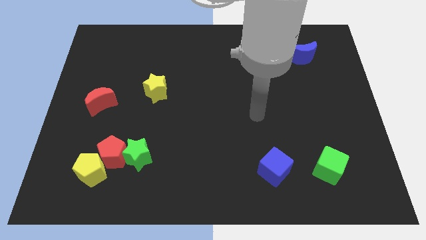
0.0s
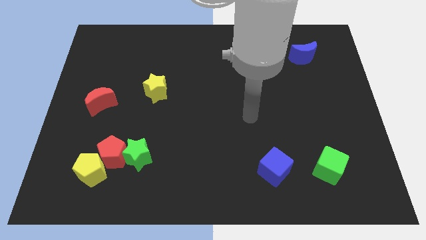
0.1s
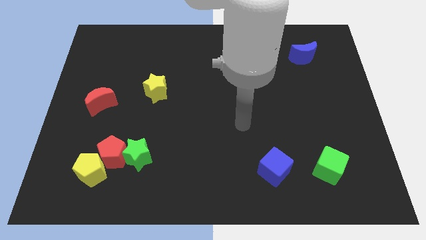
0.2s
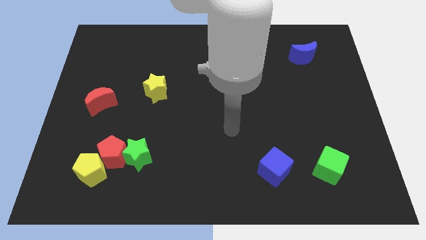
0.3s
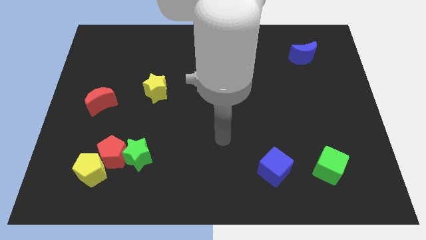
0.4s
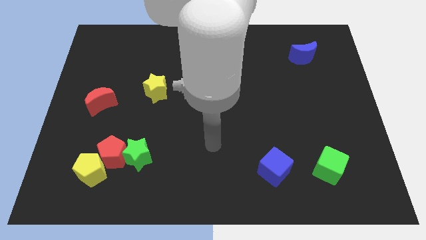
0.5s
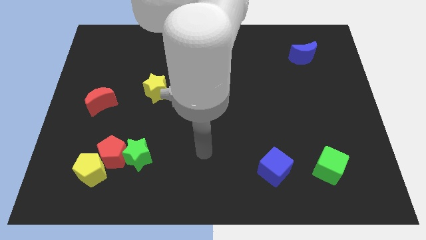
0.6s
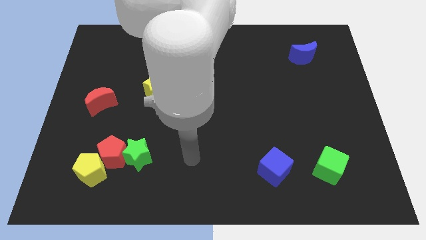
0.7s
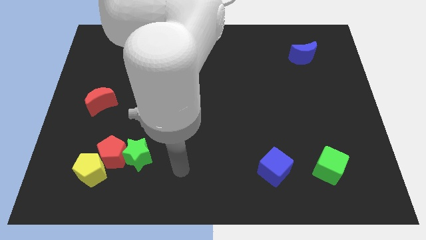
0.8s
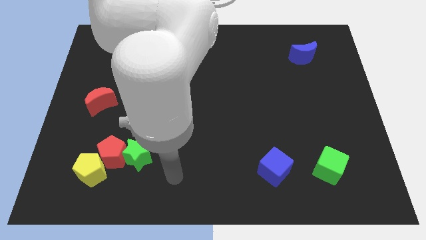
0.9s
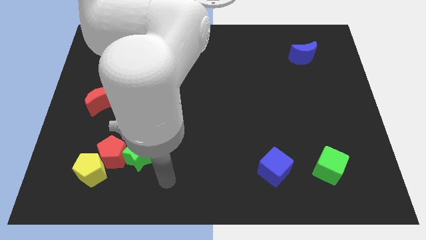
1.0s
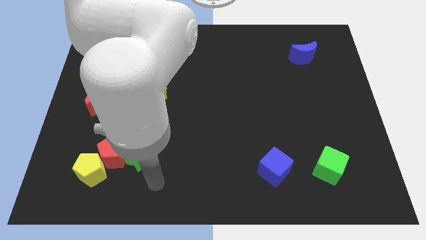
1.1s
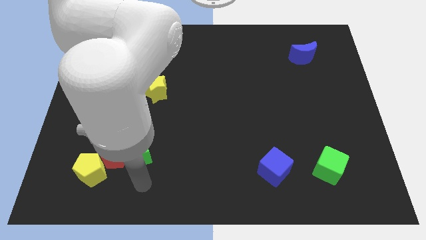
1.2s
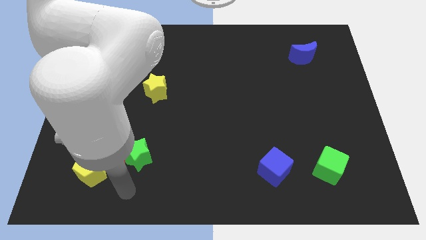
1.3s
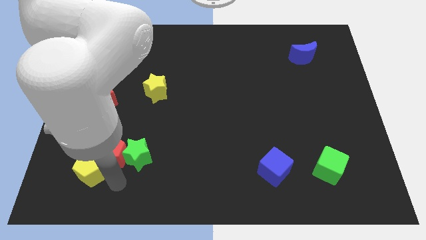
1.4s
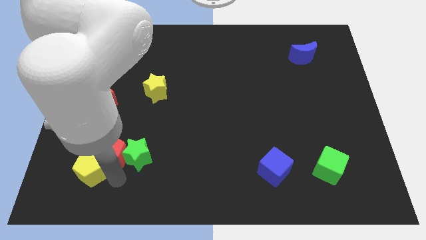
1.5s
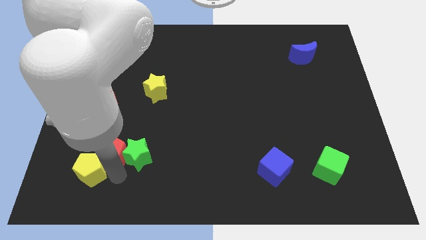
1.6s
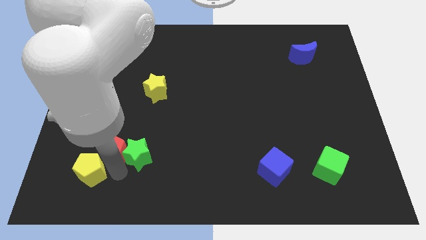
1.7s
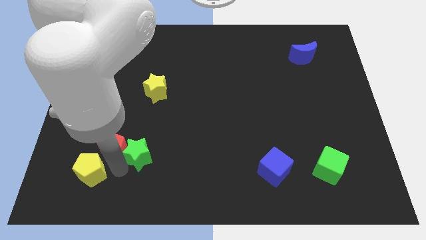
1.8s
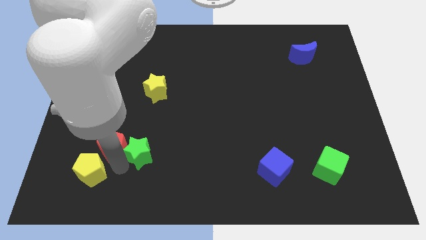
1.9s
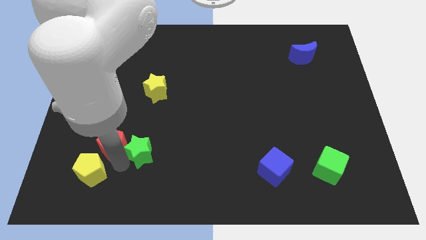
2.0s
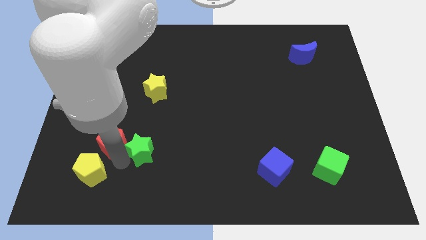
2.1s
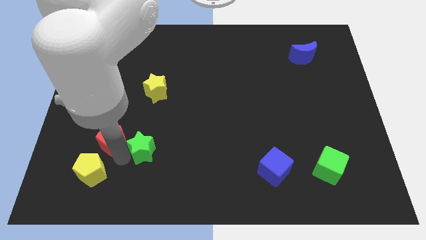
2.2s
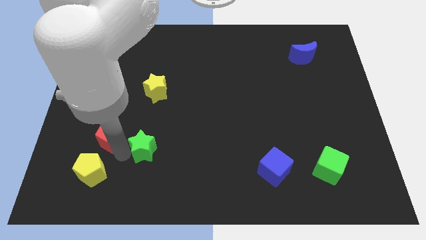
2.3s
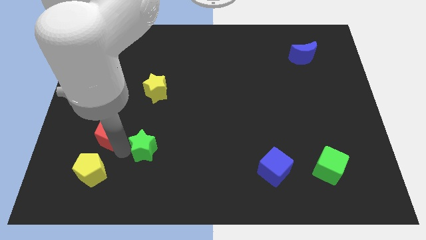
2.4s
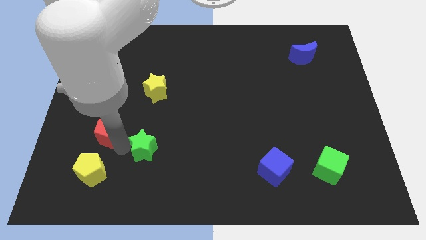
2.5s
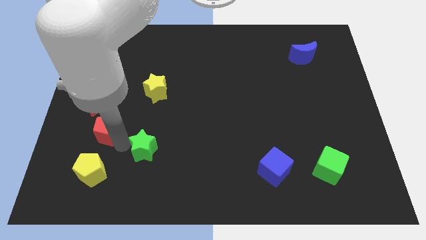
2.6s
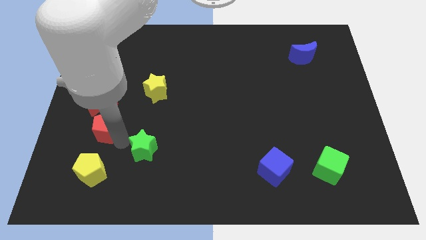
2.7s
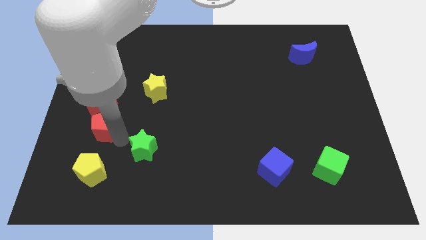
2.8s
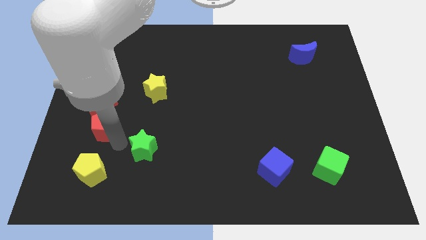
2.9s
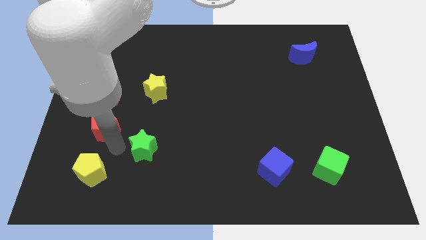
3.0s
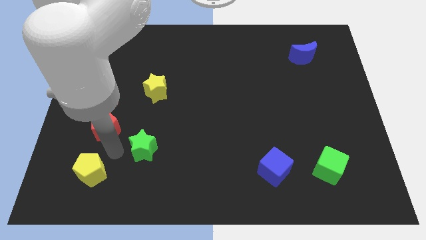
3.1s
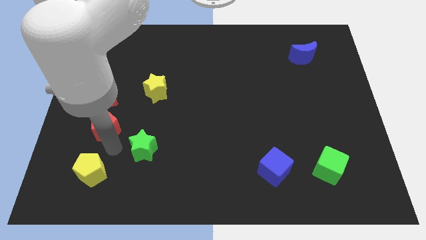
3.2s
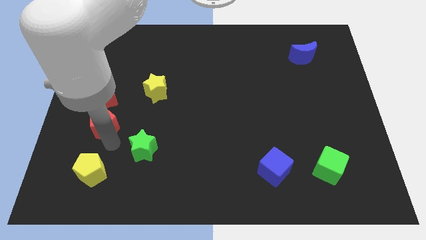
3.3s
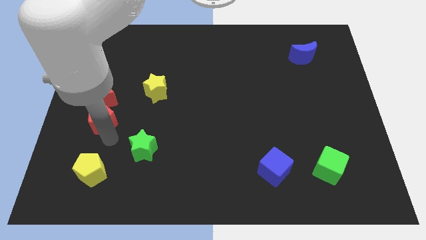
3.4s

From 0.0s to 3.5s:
pull the red pentagon apart from the green star and yellow pentagon

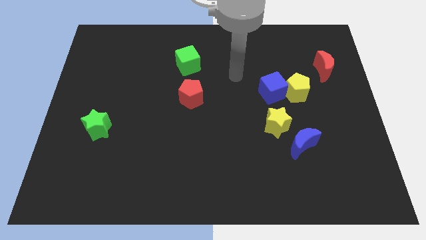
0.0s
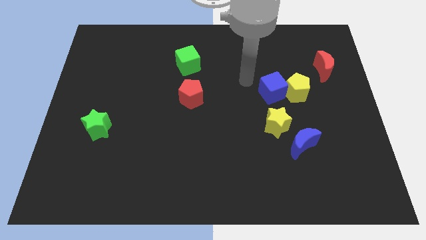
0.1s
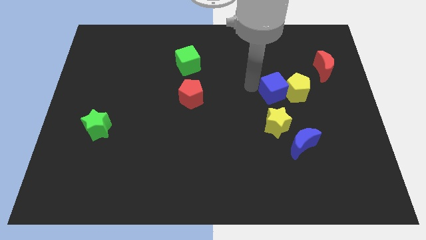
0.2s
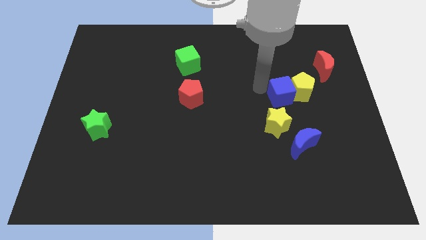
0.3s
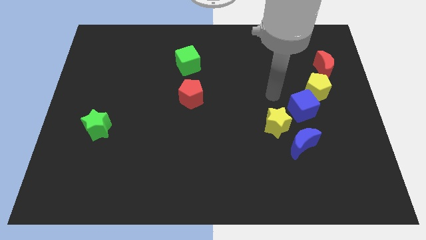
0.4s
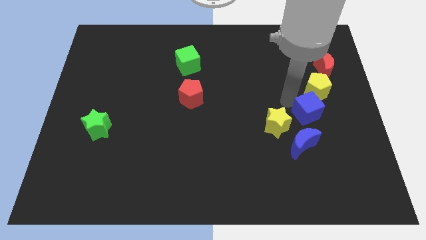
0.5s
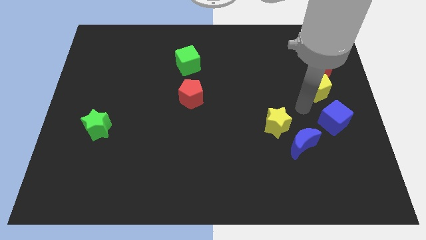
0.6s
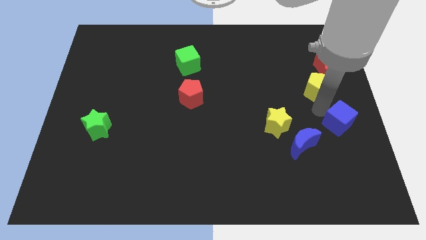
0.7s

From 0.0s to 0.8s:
pull the yellow pentagon apart from the blue cube

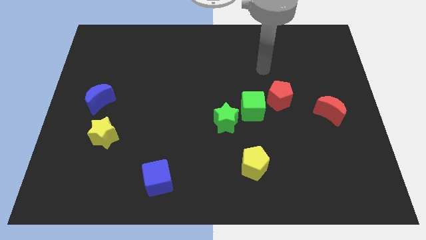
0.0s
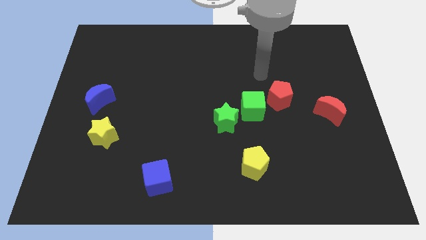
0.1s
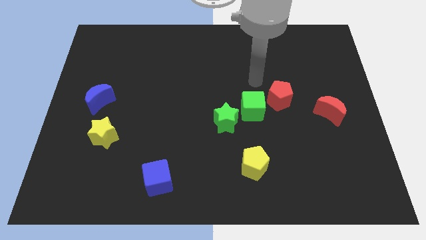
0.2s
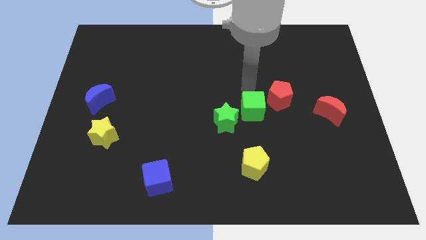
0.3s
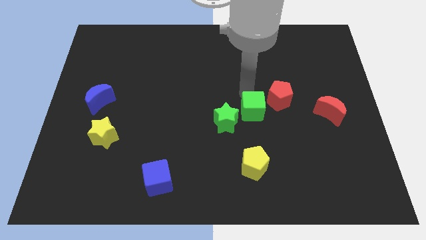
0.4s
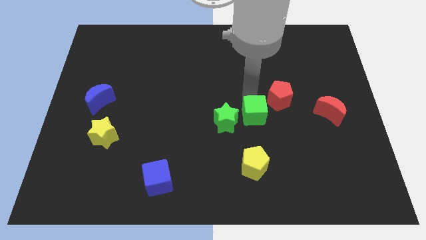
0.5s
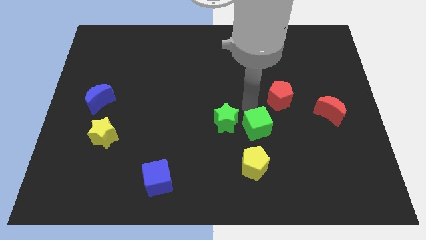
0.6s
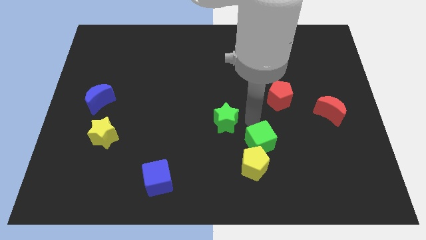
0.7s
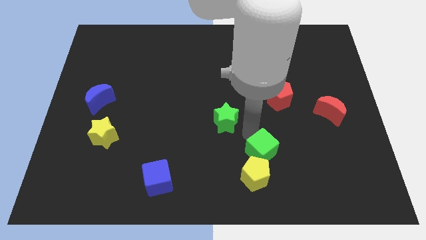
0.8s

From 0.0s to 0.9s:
separate the green star from the green cube

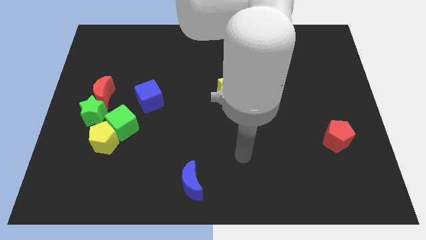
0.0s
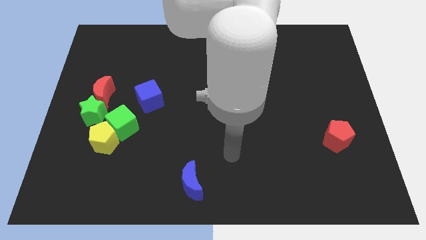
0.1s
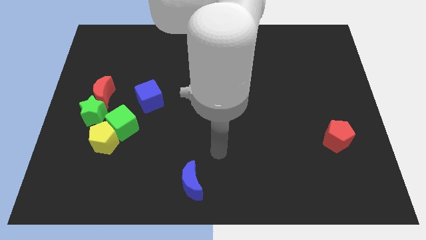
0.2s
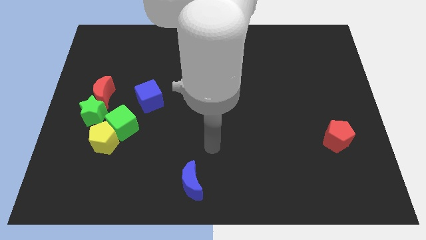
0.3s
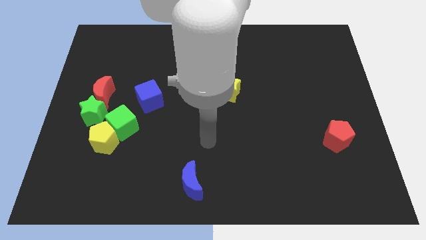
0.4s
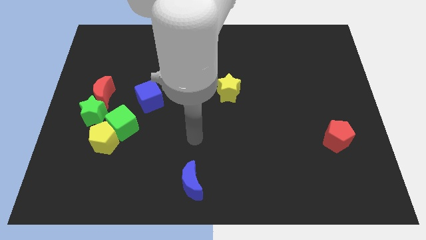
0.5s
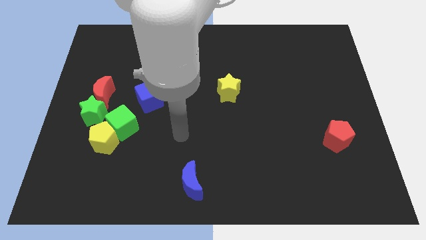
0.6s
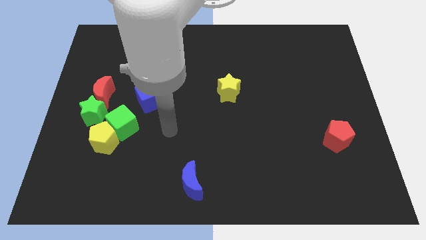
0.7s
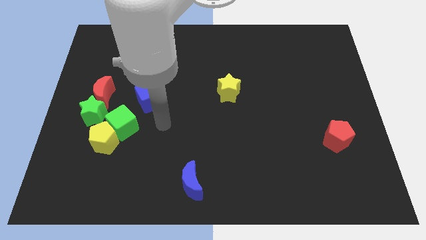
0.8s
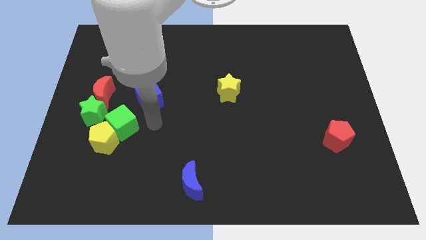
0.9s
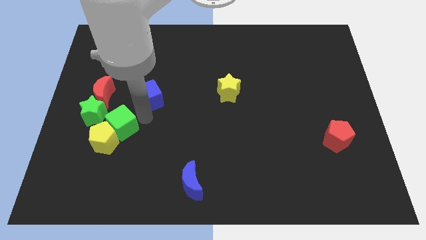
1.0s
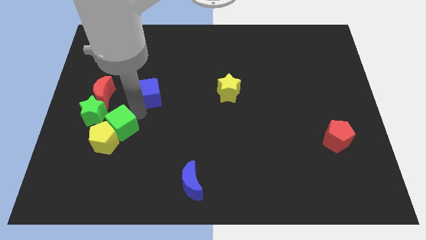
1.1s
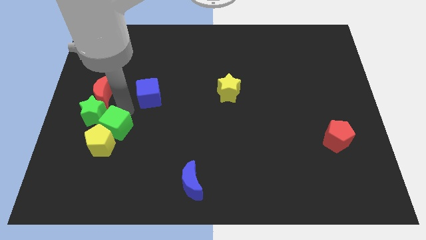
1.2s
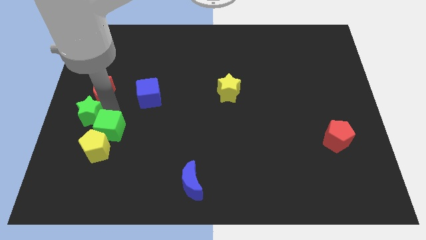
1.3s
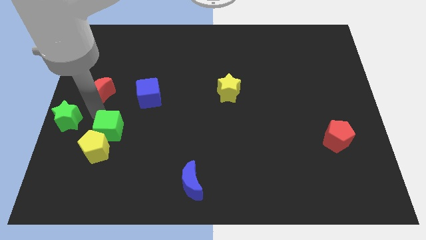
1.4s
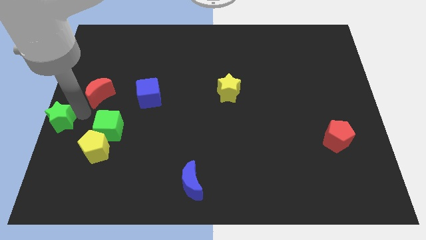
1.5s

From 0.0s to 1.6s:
separate the red moon from the green star

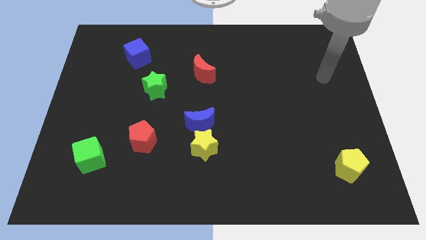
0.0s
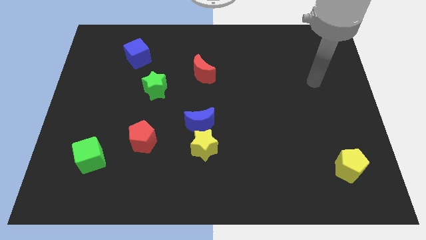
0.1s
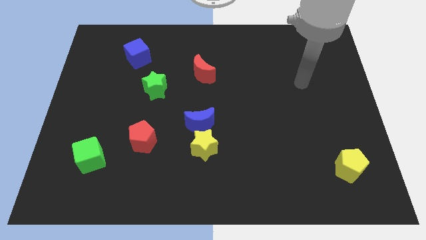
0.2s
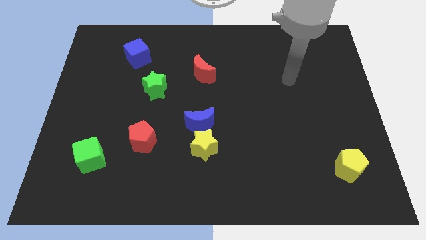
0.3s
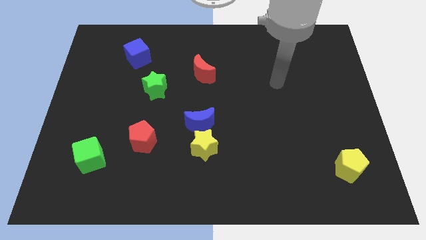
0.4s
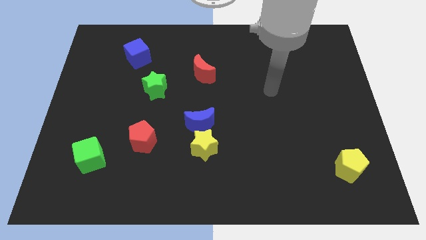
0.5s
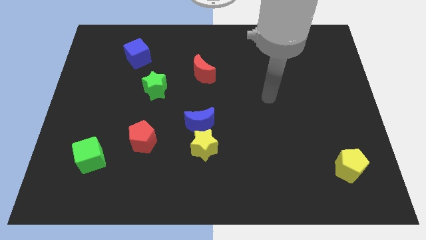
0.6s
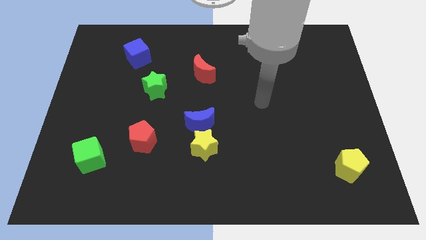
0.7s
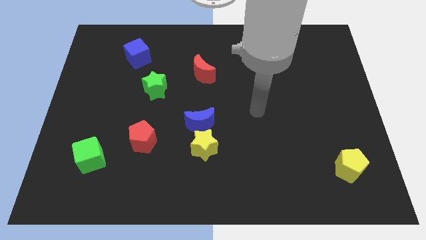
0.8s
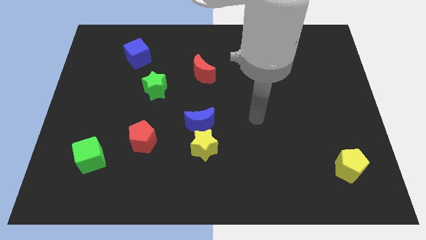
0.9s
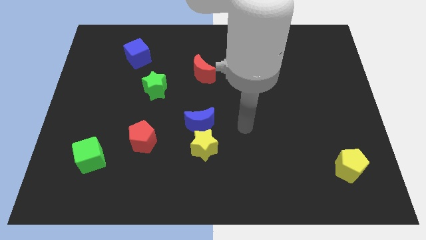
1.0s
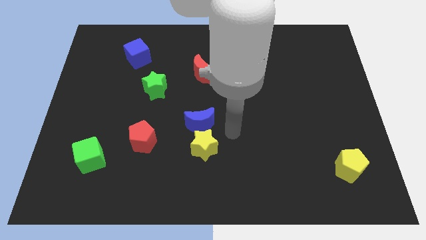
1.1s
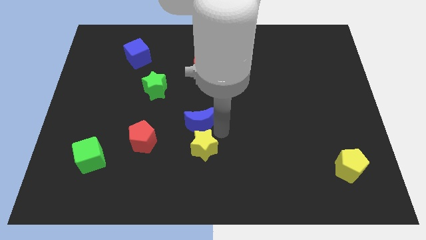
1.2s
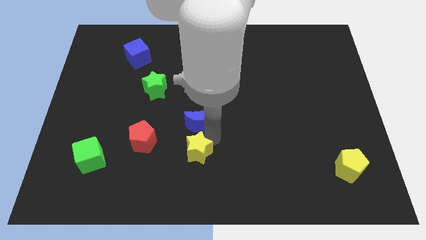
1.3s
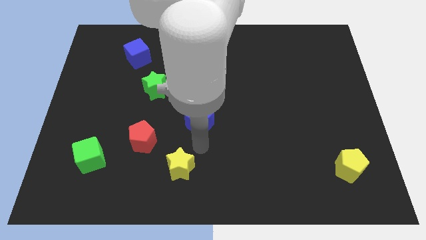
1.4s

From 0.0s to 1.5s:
pull the blue moon apart from the yellow star

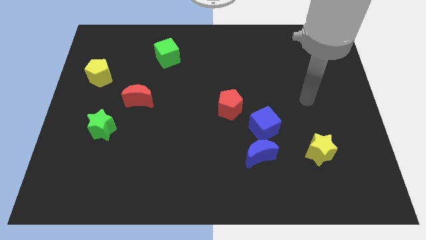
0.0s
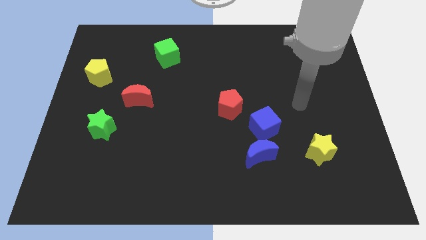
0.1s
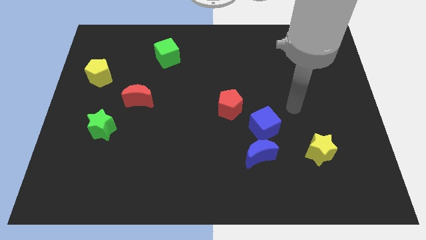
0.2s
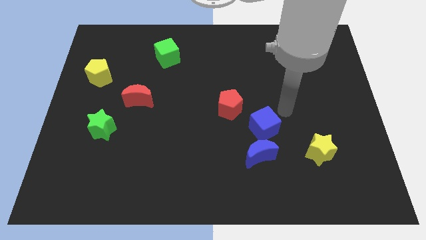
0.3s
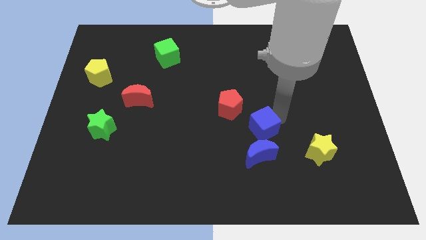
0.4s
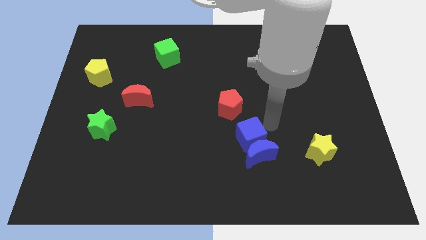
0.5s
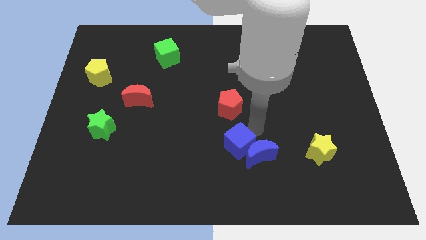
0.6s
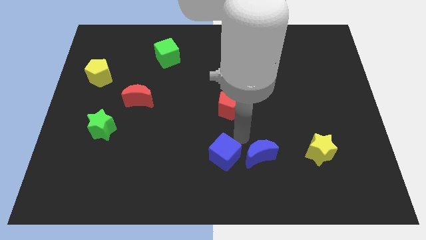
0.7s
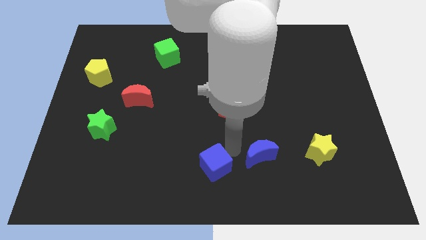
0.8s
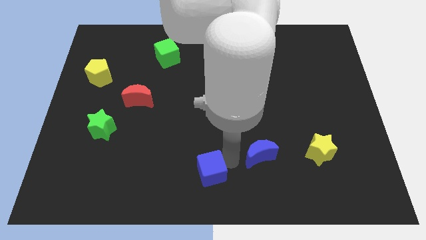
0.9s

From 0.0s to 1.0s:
move the blue moon away from the blue cube

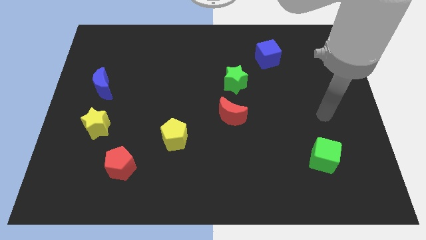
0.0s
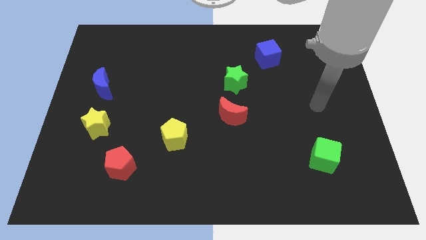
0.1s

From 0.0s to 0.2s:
pull the red moon apart from the green star
